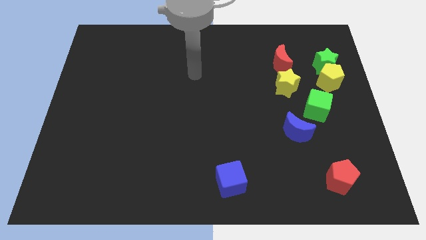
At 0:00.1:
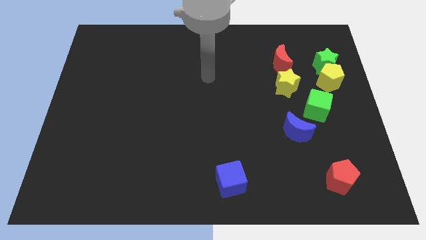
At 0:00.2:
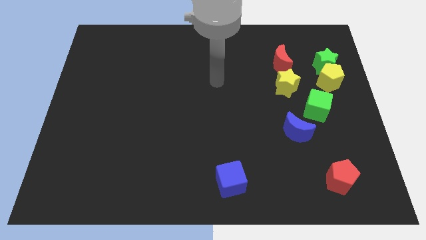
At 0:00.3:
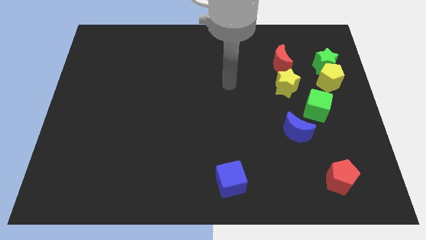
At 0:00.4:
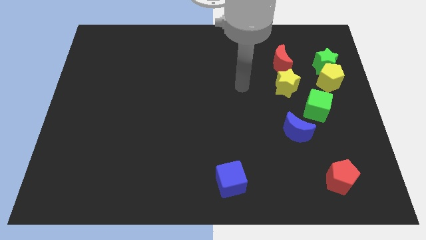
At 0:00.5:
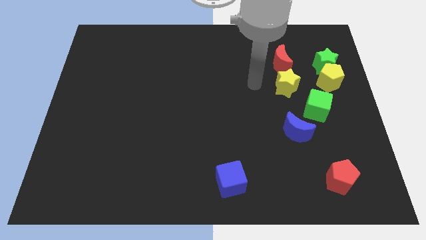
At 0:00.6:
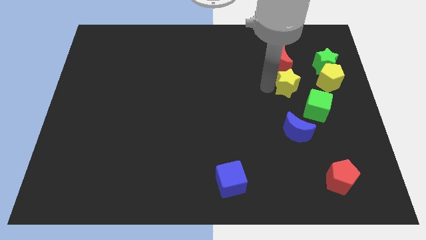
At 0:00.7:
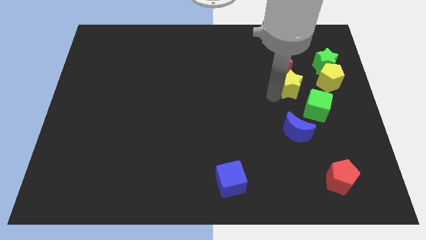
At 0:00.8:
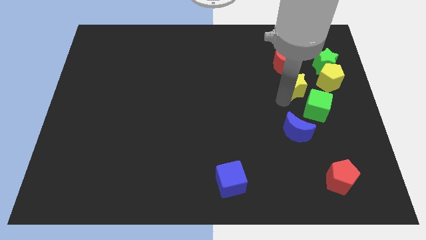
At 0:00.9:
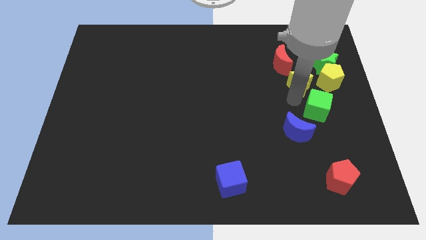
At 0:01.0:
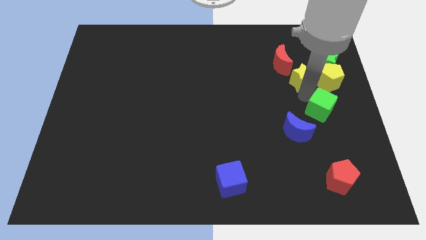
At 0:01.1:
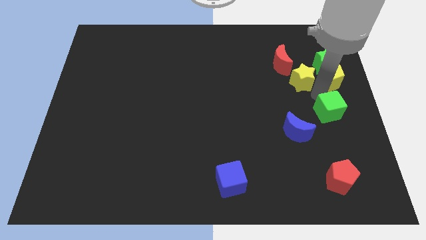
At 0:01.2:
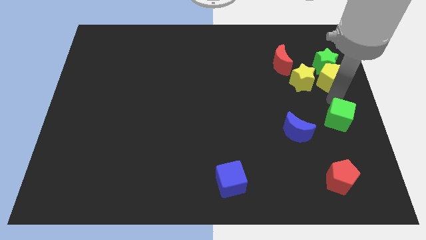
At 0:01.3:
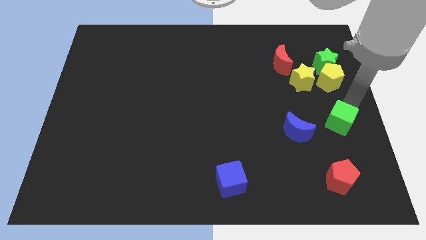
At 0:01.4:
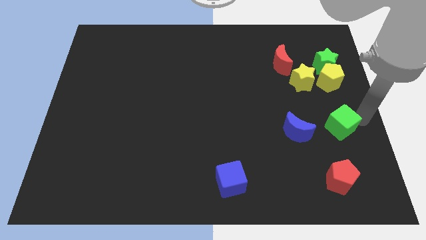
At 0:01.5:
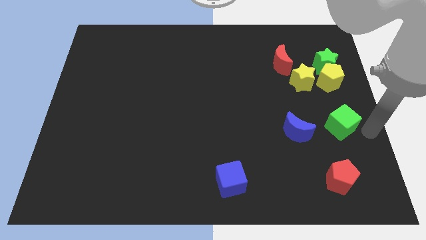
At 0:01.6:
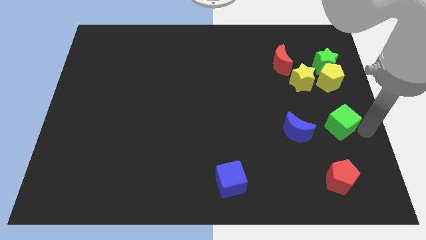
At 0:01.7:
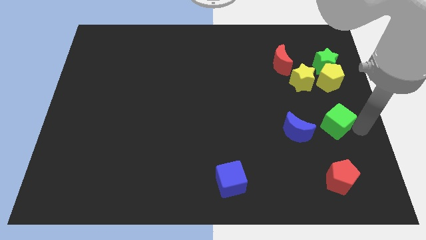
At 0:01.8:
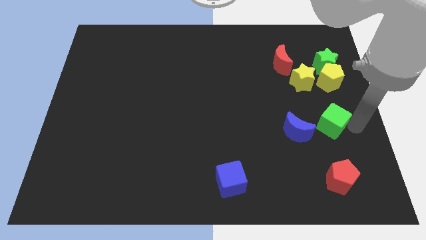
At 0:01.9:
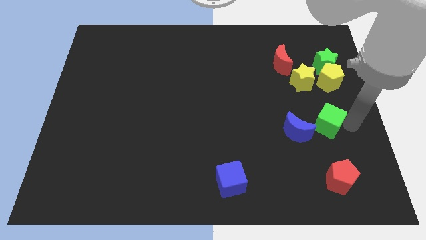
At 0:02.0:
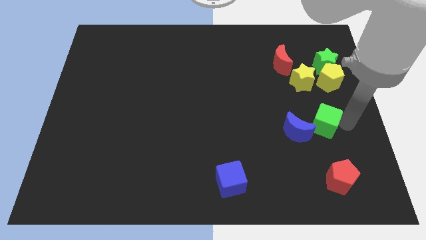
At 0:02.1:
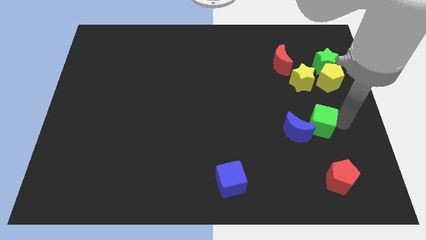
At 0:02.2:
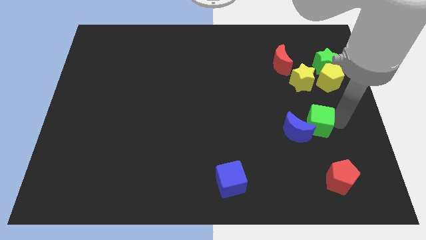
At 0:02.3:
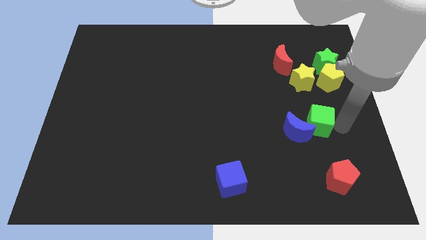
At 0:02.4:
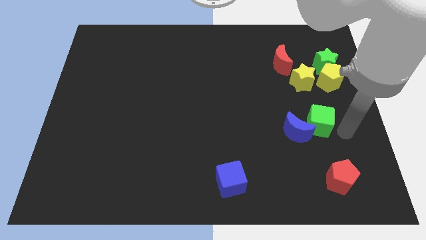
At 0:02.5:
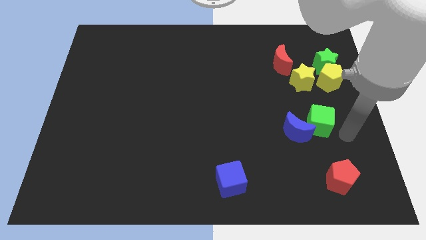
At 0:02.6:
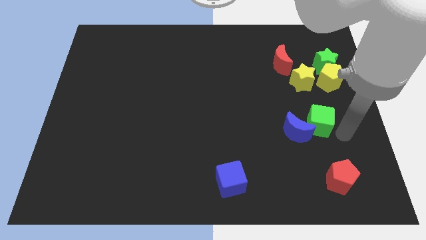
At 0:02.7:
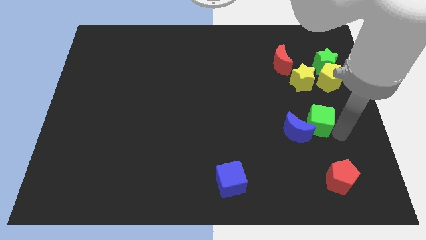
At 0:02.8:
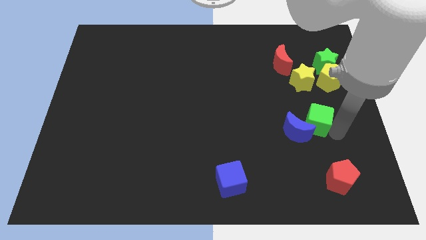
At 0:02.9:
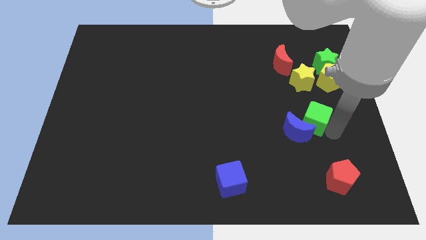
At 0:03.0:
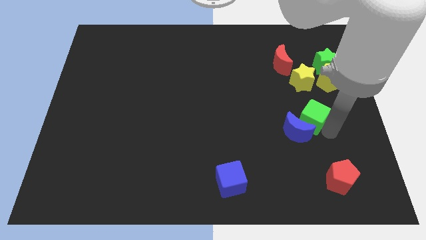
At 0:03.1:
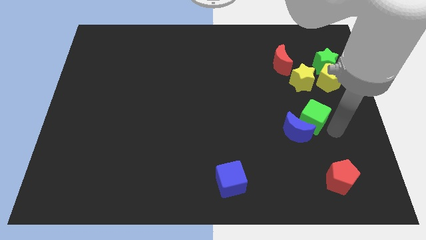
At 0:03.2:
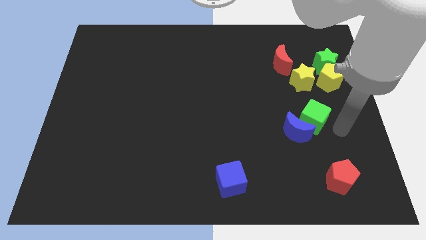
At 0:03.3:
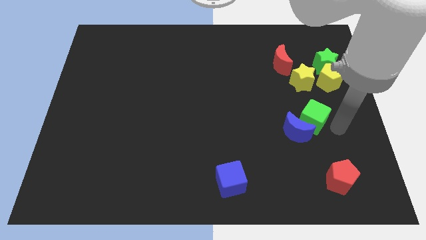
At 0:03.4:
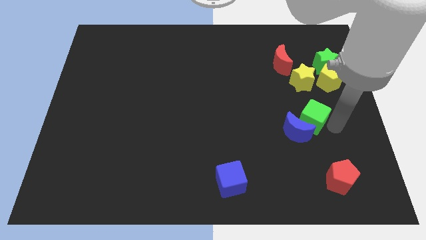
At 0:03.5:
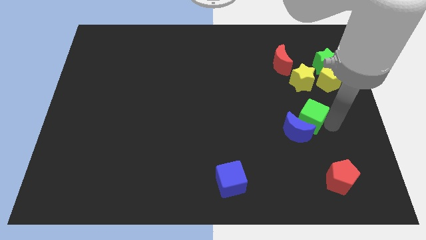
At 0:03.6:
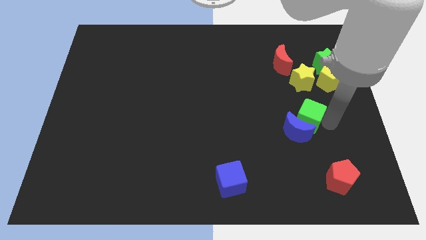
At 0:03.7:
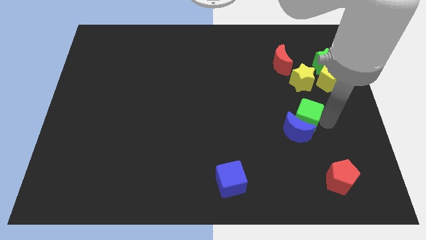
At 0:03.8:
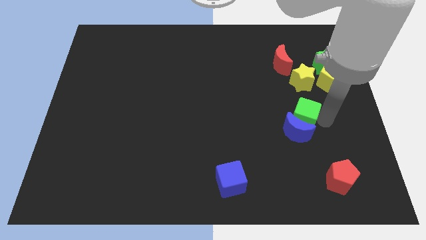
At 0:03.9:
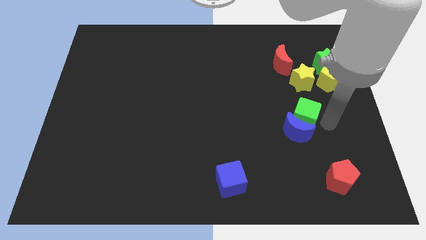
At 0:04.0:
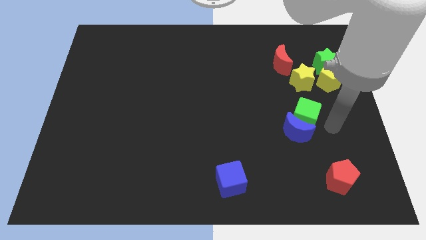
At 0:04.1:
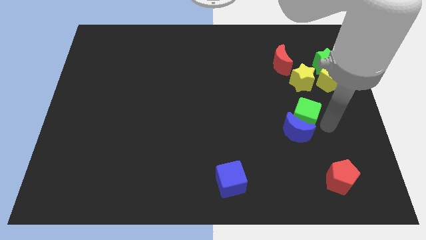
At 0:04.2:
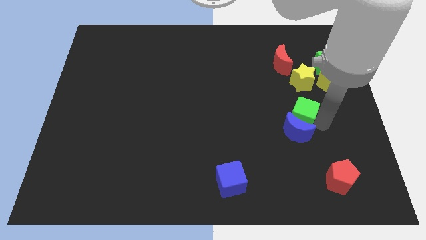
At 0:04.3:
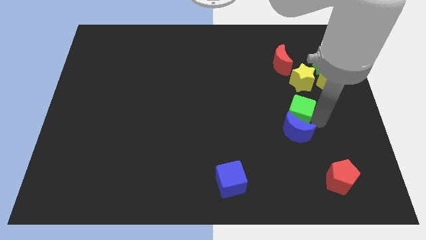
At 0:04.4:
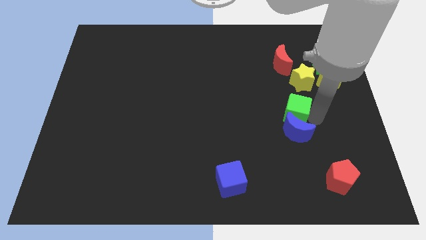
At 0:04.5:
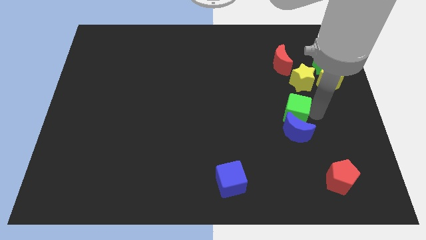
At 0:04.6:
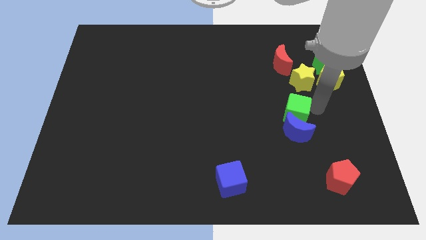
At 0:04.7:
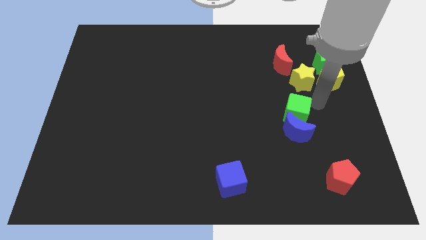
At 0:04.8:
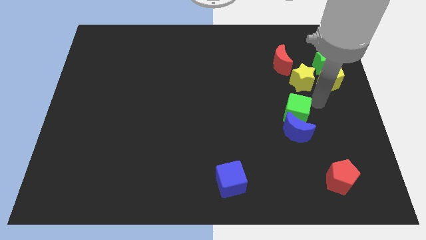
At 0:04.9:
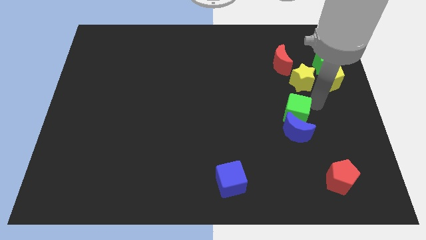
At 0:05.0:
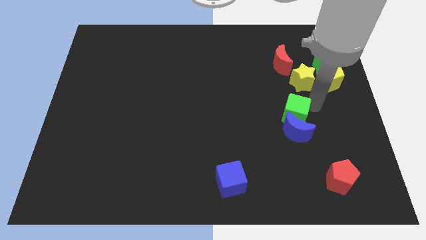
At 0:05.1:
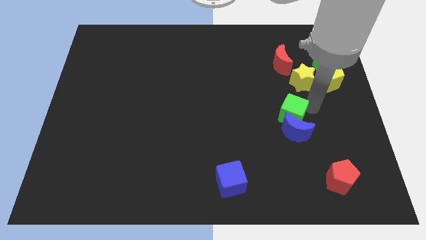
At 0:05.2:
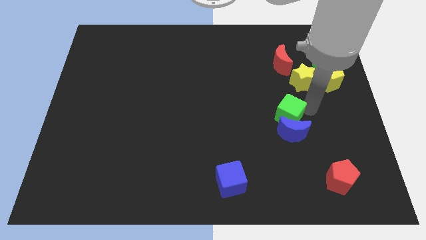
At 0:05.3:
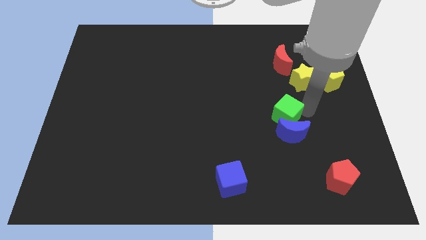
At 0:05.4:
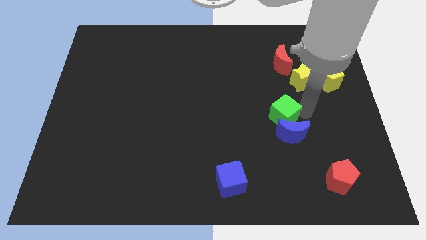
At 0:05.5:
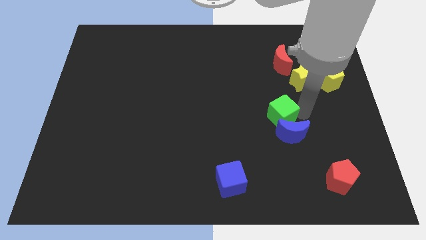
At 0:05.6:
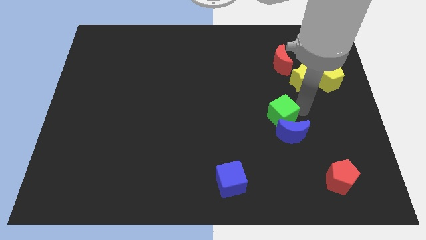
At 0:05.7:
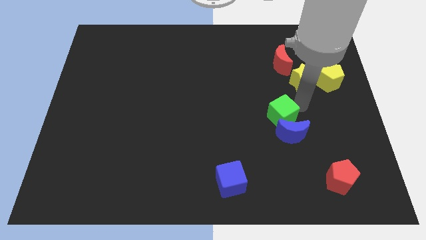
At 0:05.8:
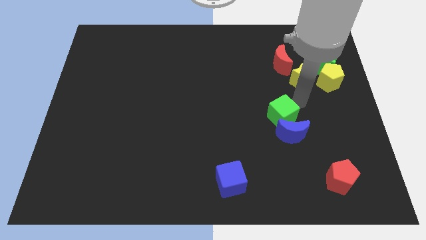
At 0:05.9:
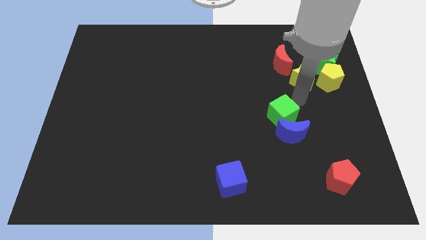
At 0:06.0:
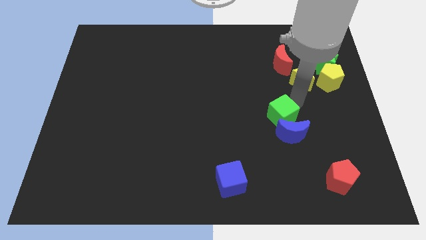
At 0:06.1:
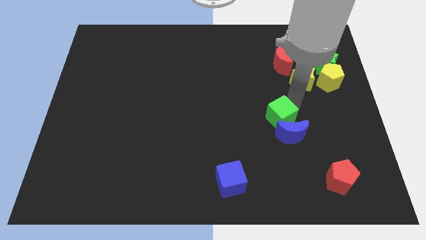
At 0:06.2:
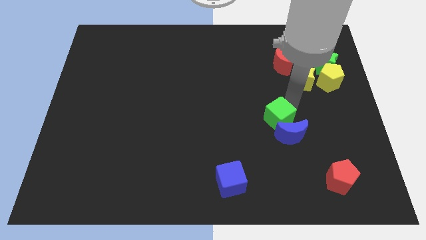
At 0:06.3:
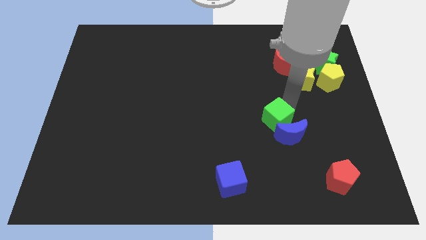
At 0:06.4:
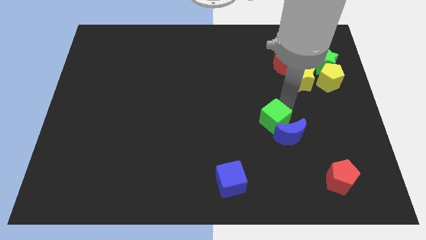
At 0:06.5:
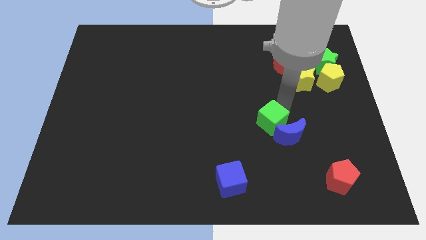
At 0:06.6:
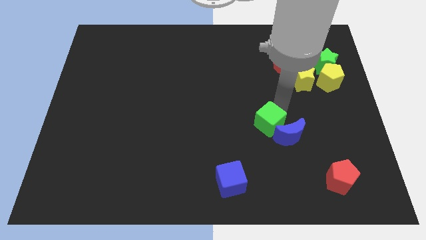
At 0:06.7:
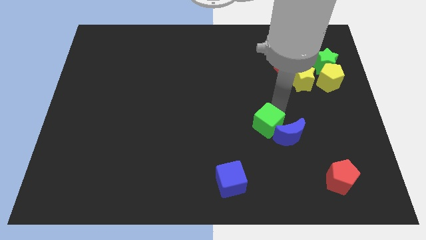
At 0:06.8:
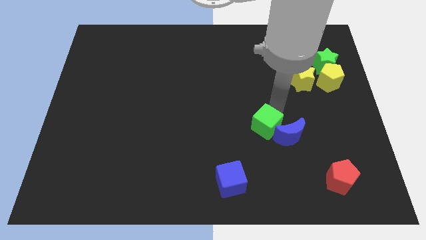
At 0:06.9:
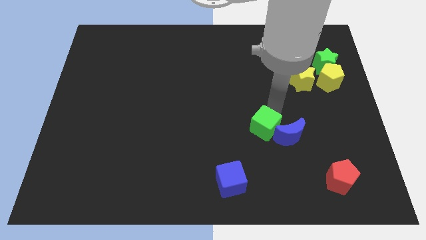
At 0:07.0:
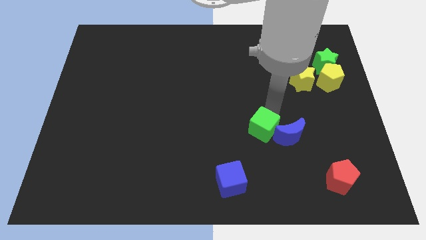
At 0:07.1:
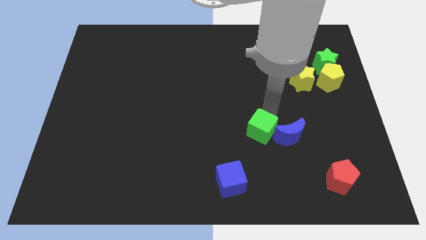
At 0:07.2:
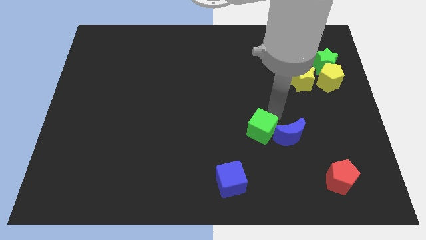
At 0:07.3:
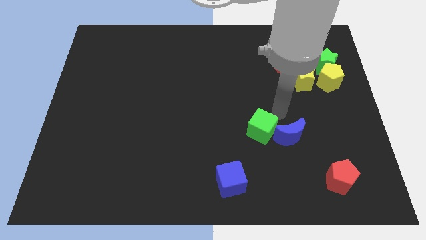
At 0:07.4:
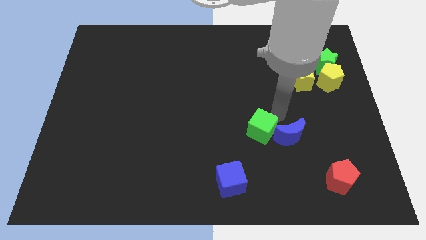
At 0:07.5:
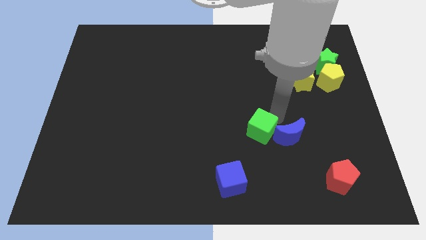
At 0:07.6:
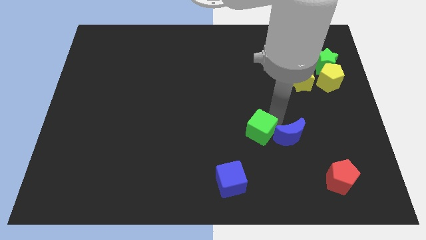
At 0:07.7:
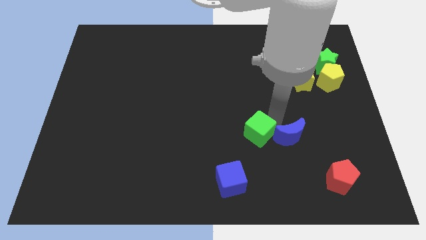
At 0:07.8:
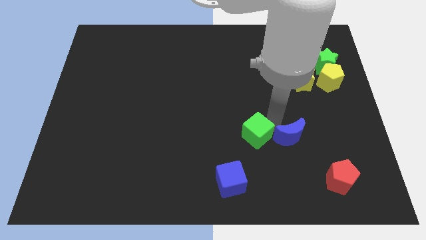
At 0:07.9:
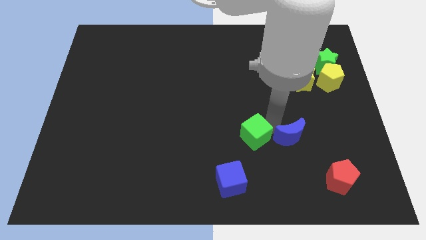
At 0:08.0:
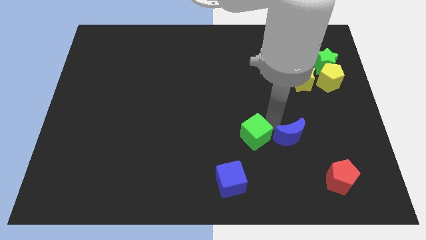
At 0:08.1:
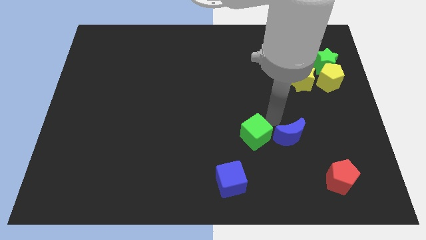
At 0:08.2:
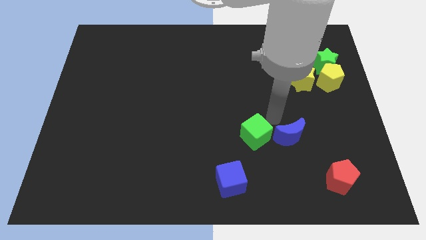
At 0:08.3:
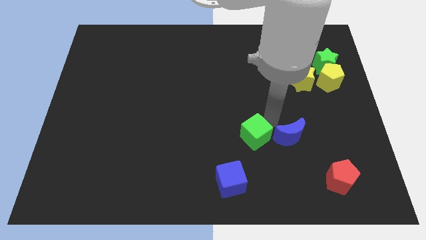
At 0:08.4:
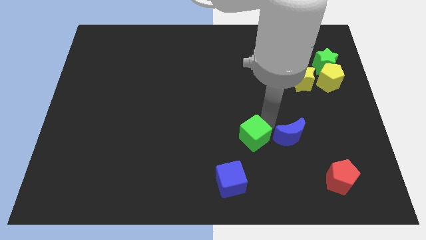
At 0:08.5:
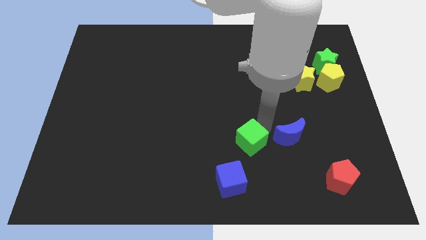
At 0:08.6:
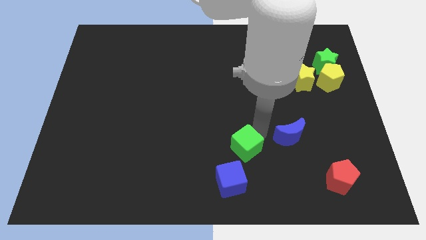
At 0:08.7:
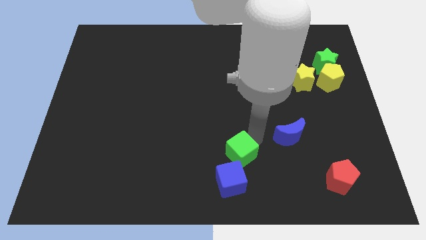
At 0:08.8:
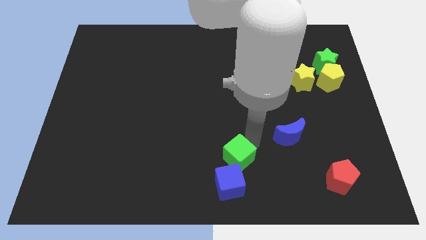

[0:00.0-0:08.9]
push the green cube to the bottom side
